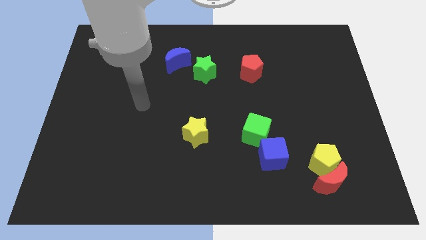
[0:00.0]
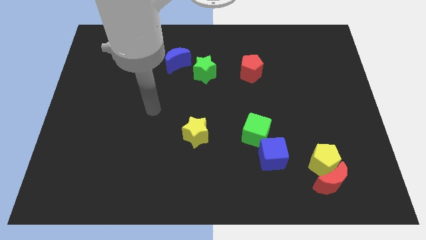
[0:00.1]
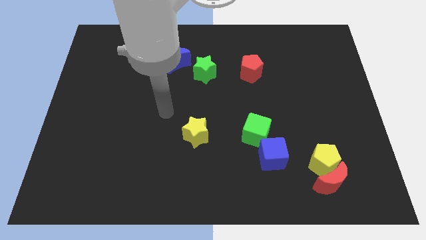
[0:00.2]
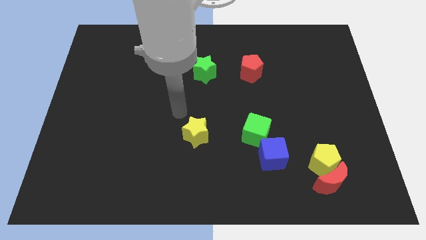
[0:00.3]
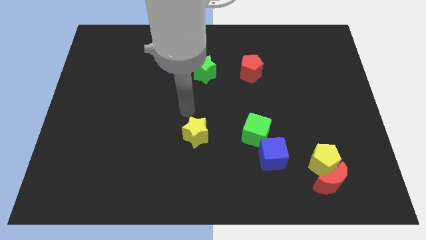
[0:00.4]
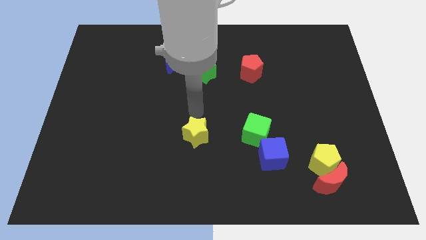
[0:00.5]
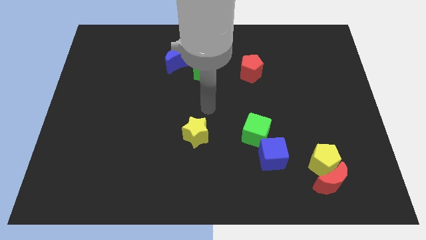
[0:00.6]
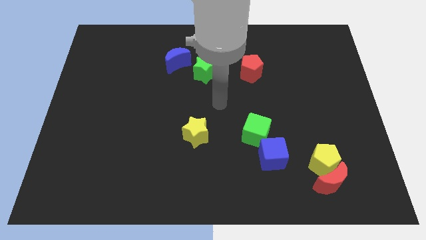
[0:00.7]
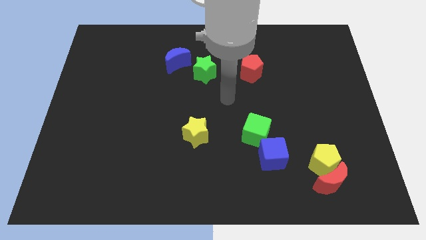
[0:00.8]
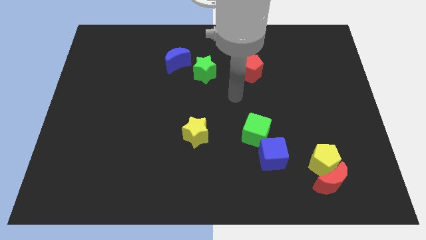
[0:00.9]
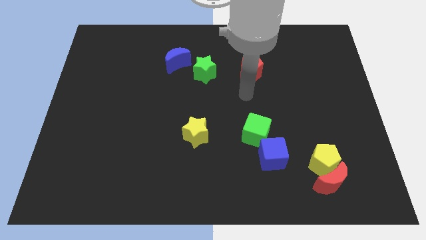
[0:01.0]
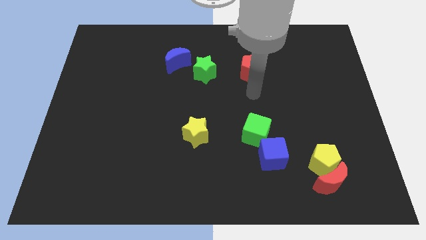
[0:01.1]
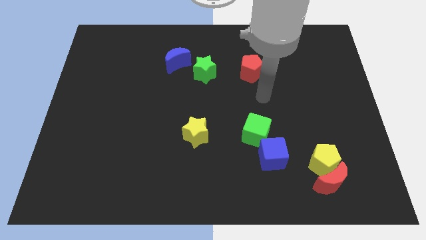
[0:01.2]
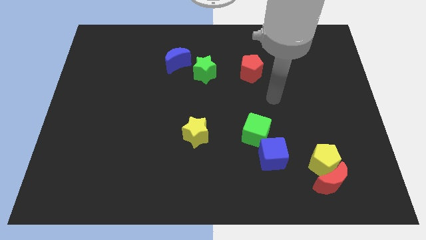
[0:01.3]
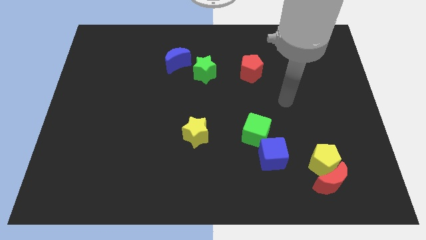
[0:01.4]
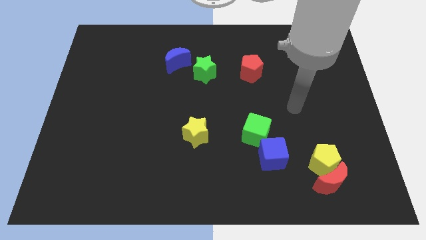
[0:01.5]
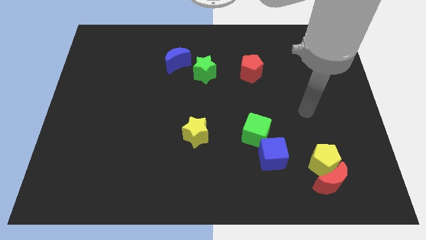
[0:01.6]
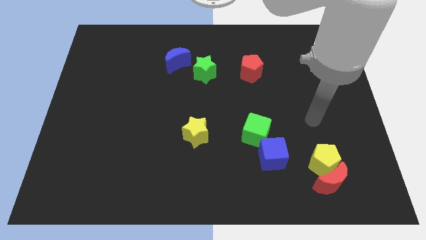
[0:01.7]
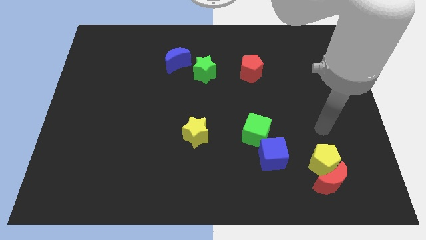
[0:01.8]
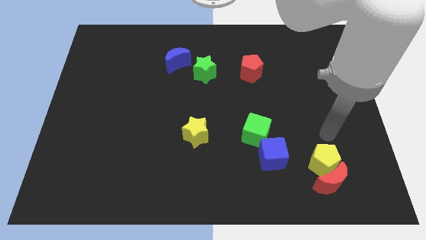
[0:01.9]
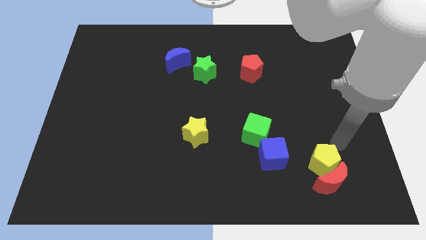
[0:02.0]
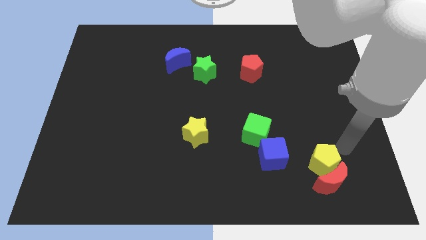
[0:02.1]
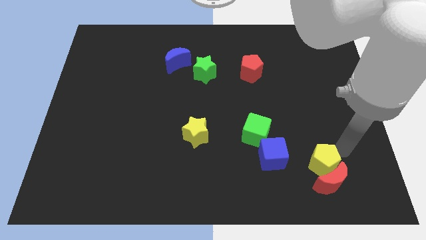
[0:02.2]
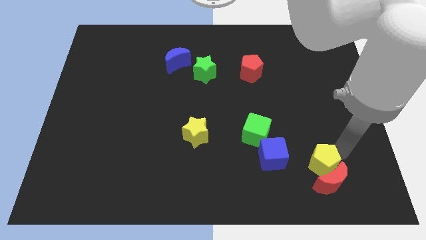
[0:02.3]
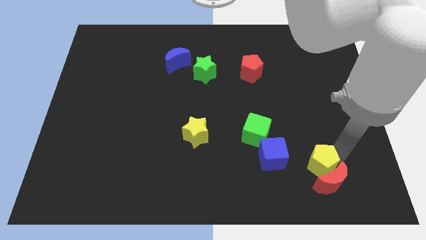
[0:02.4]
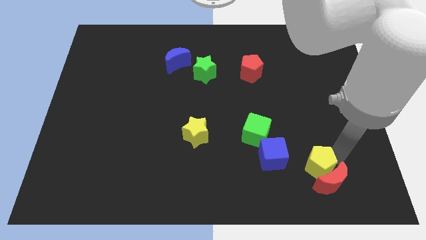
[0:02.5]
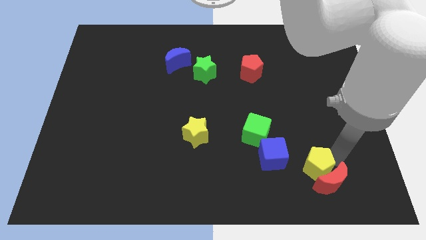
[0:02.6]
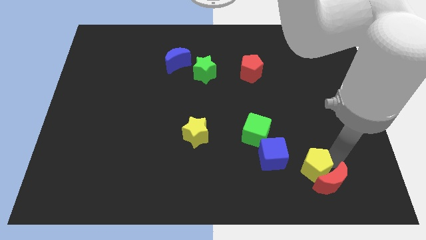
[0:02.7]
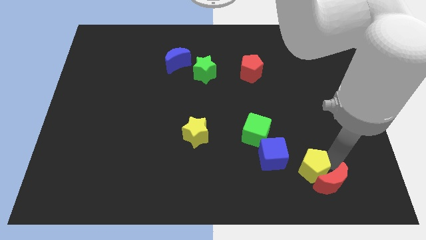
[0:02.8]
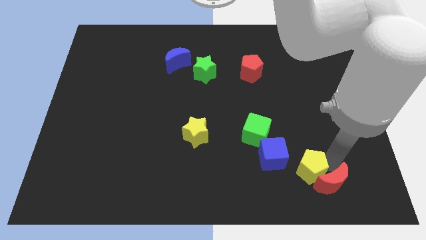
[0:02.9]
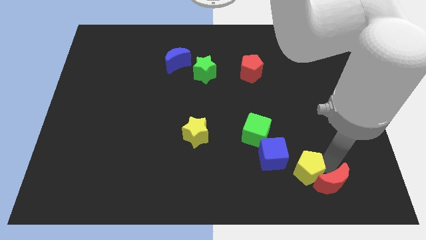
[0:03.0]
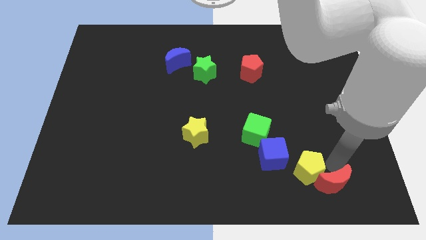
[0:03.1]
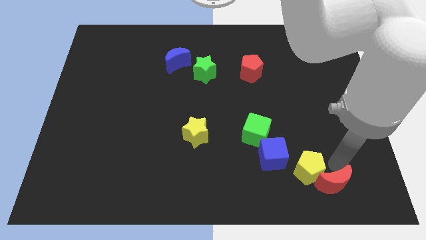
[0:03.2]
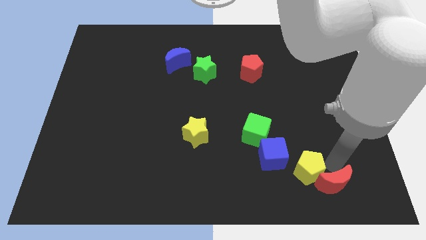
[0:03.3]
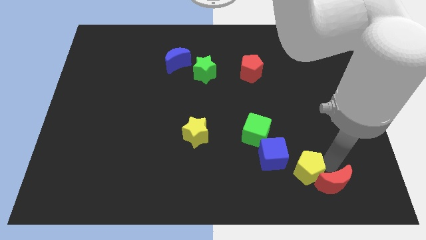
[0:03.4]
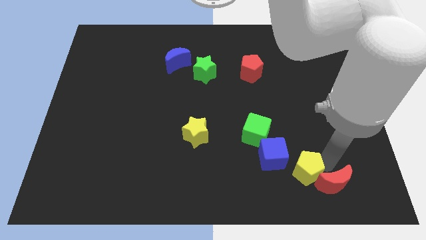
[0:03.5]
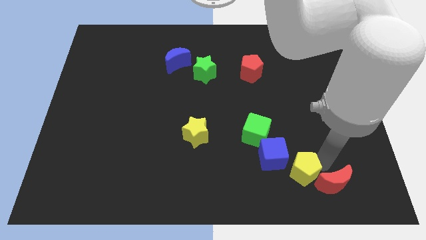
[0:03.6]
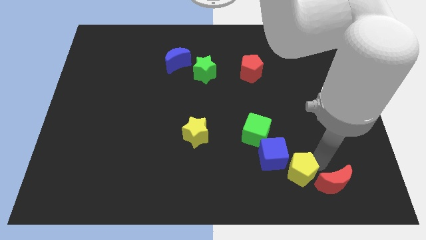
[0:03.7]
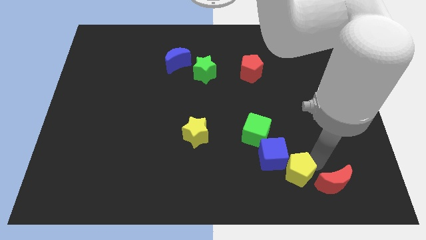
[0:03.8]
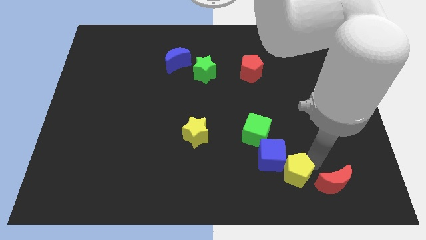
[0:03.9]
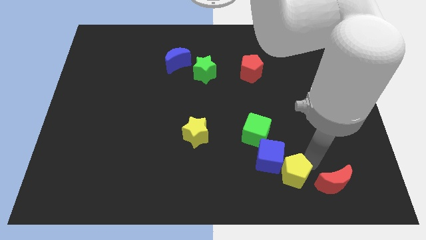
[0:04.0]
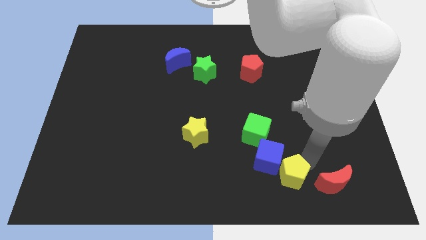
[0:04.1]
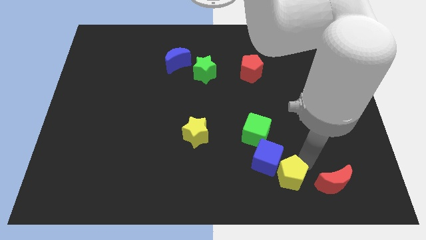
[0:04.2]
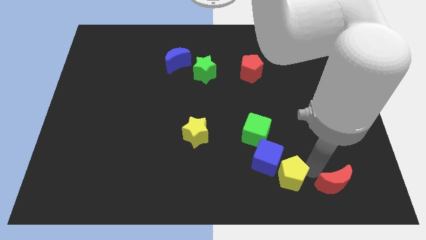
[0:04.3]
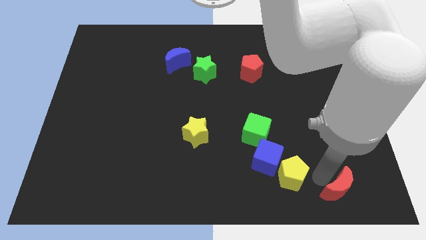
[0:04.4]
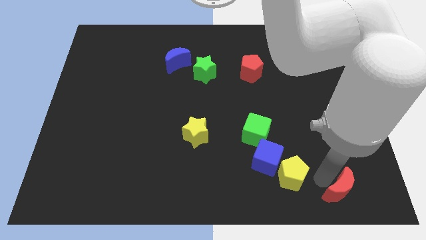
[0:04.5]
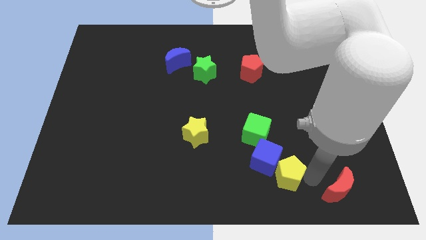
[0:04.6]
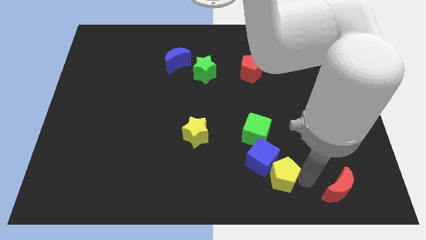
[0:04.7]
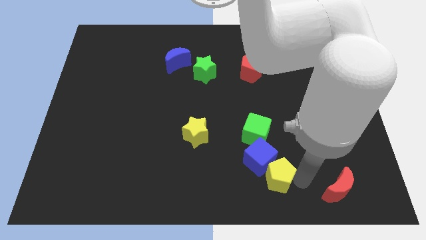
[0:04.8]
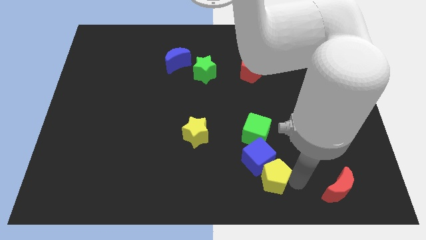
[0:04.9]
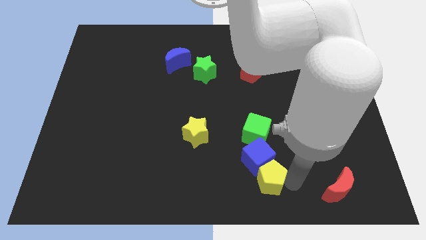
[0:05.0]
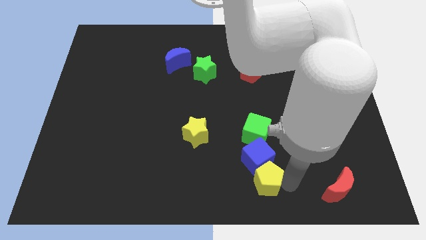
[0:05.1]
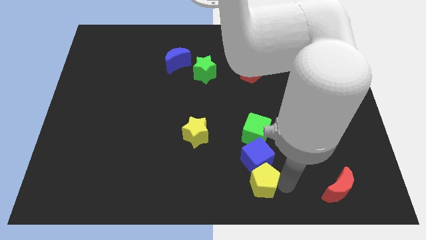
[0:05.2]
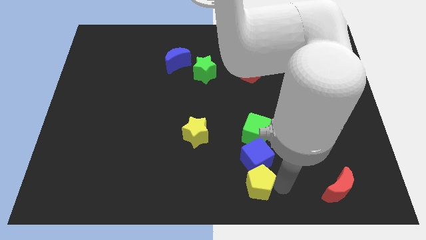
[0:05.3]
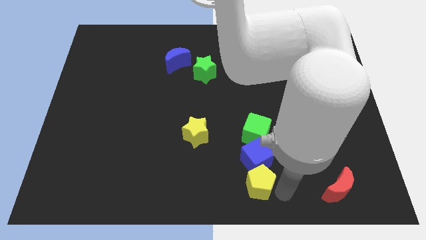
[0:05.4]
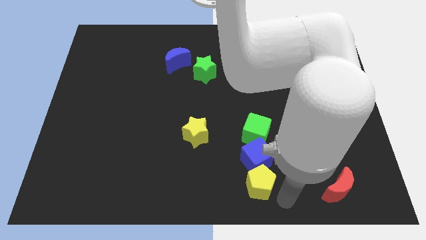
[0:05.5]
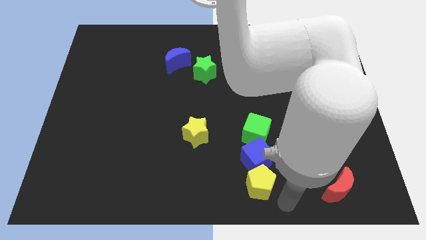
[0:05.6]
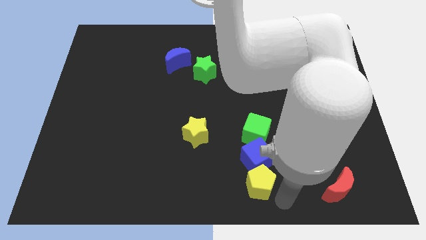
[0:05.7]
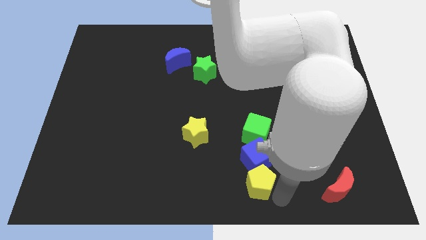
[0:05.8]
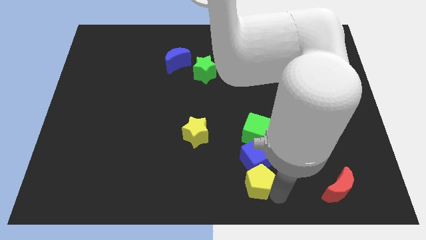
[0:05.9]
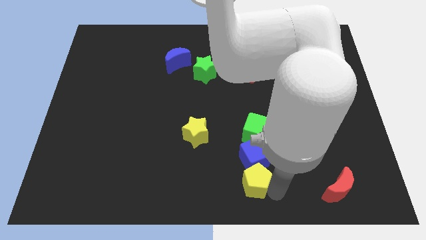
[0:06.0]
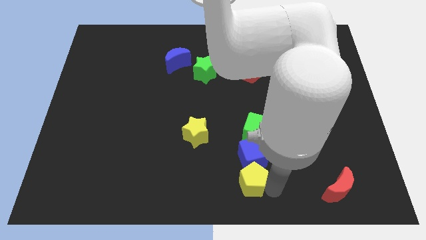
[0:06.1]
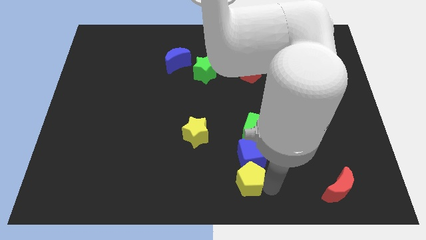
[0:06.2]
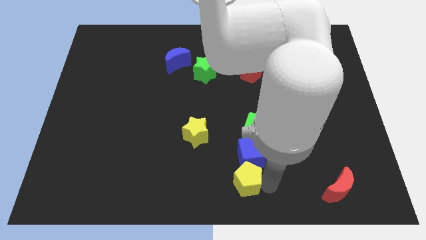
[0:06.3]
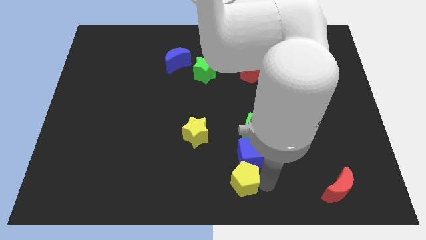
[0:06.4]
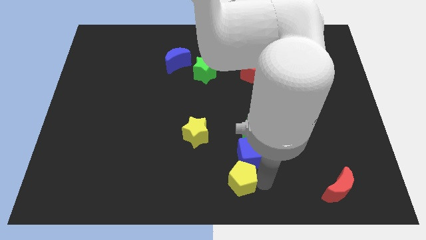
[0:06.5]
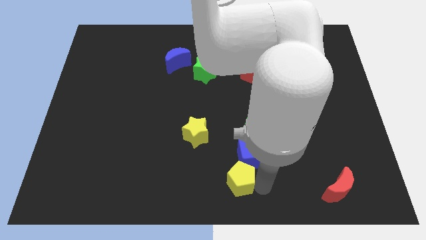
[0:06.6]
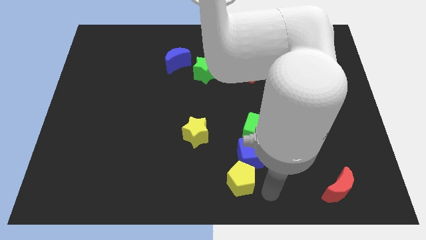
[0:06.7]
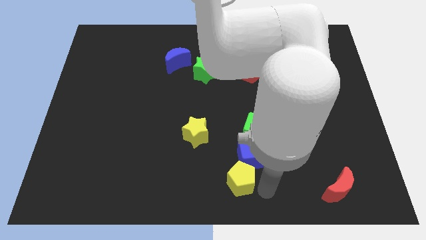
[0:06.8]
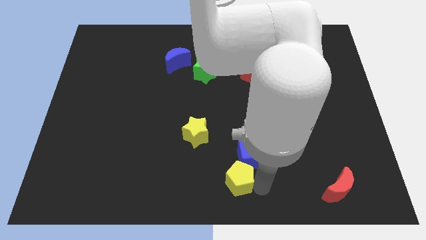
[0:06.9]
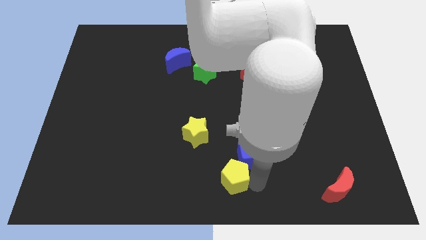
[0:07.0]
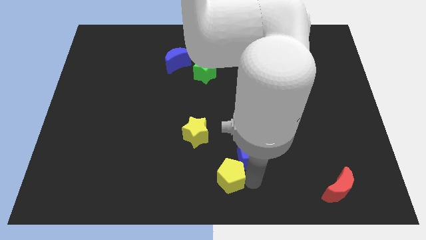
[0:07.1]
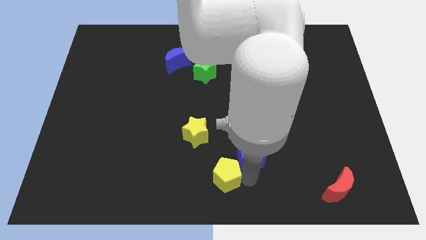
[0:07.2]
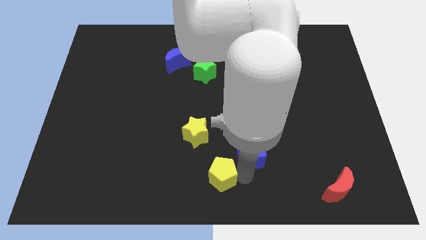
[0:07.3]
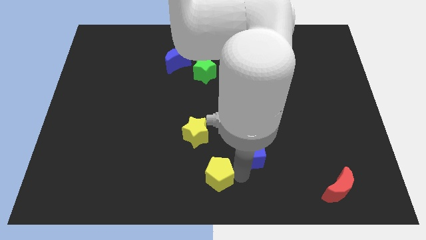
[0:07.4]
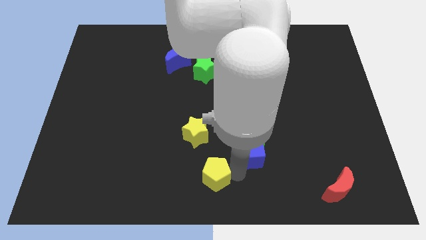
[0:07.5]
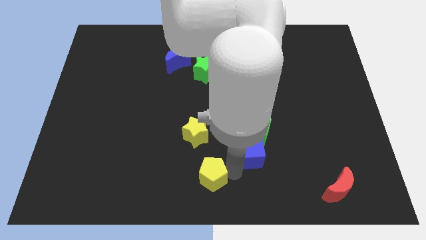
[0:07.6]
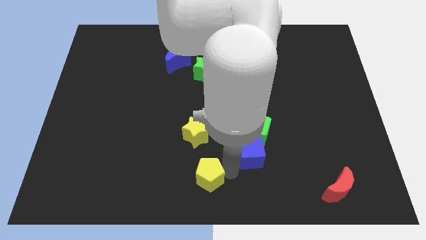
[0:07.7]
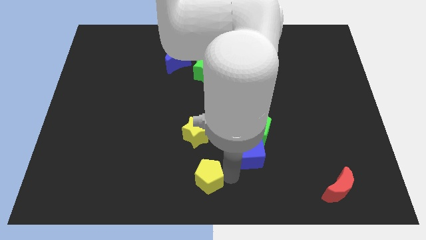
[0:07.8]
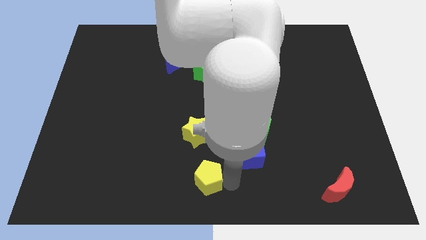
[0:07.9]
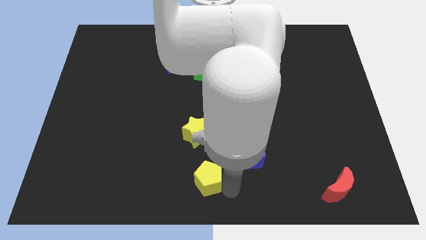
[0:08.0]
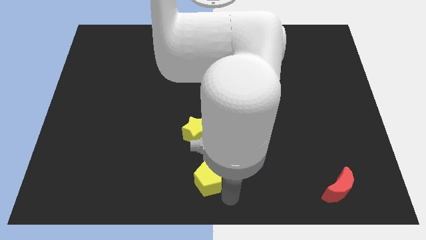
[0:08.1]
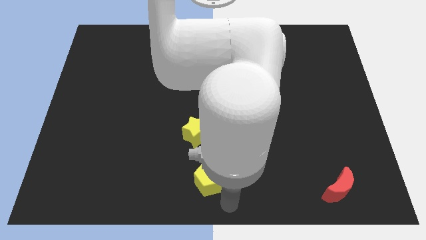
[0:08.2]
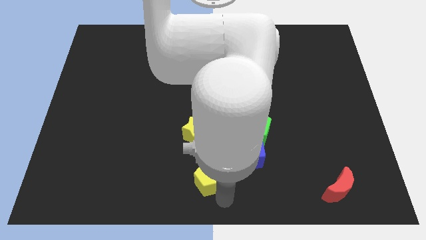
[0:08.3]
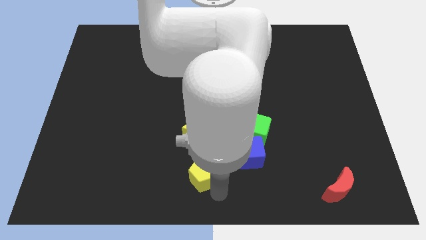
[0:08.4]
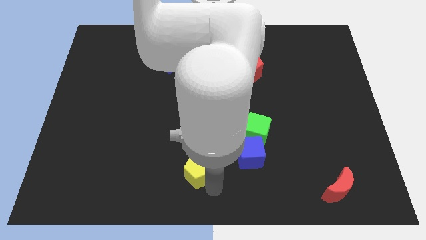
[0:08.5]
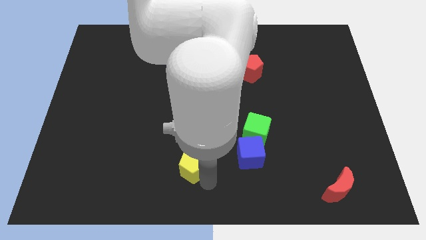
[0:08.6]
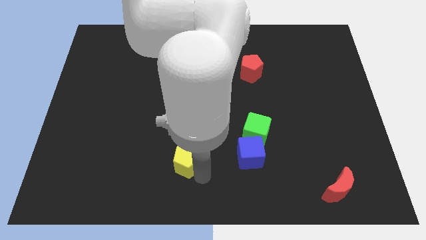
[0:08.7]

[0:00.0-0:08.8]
slide the yellow pentagon diagonally down and to the left of the yellow star
